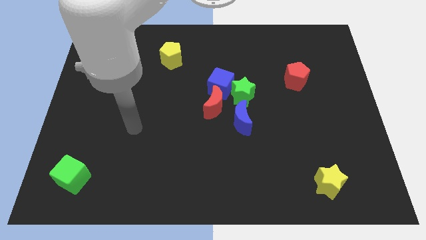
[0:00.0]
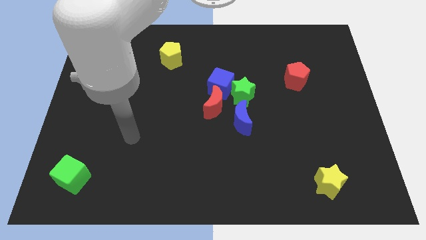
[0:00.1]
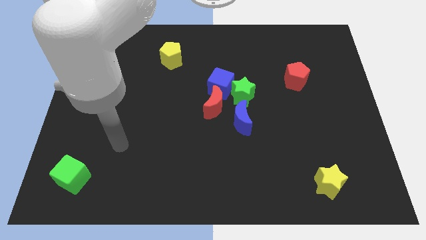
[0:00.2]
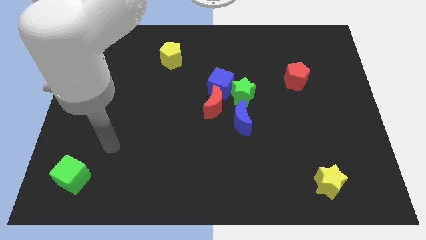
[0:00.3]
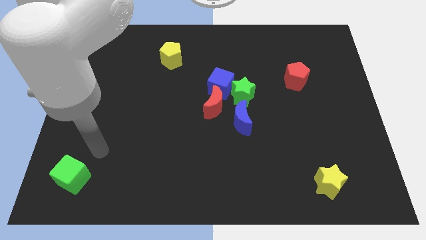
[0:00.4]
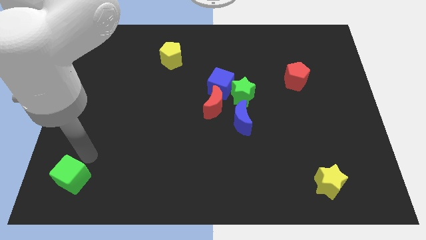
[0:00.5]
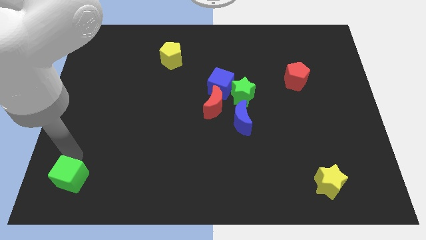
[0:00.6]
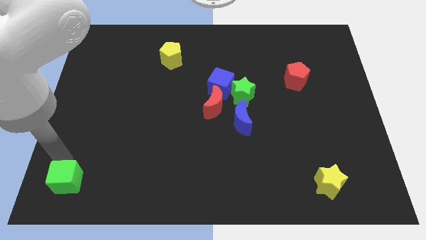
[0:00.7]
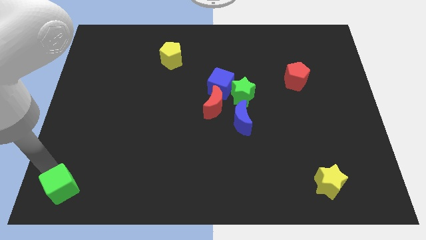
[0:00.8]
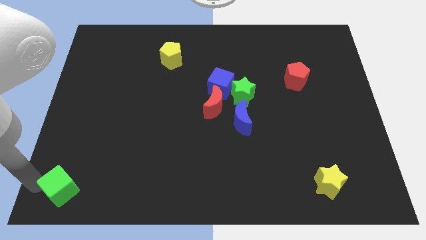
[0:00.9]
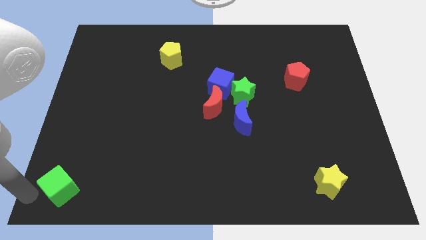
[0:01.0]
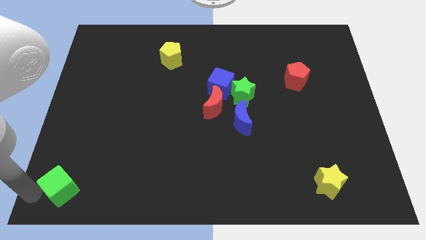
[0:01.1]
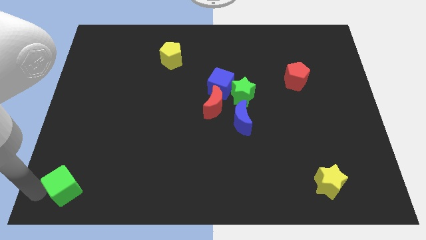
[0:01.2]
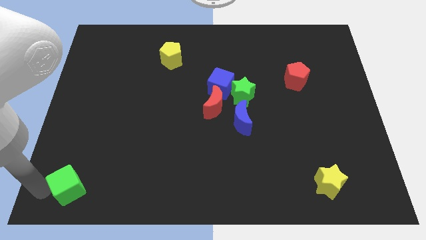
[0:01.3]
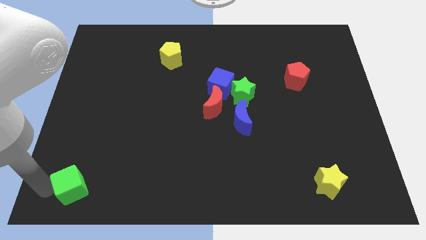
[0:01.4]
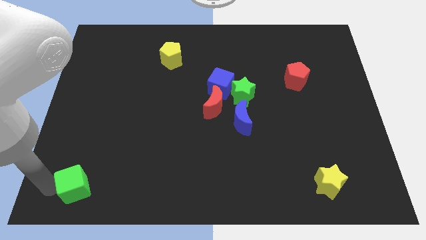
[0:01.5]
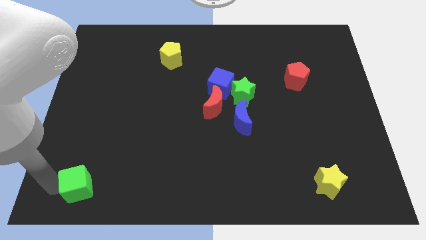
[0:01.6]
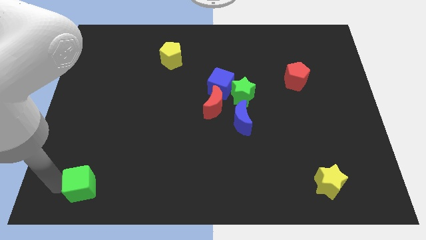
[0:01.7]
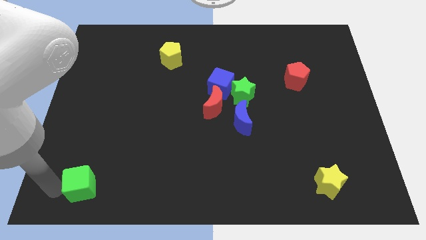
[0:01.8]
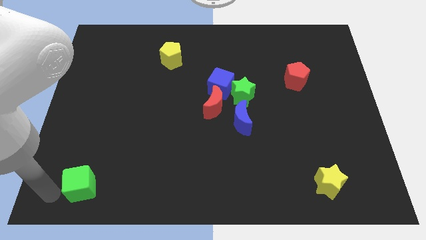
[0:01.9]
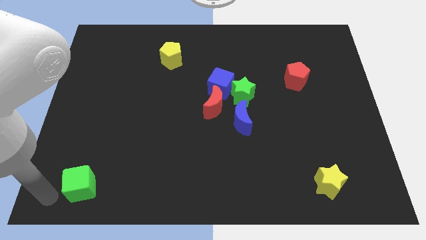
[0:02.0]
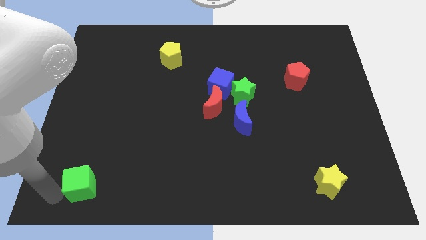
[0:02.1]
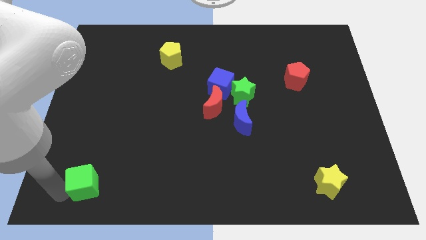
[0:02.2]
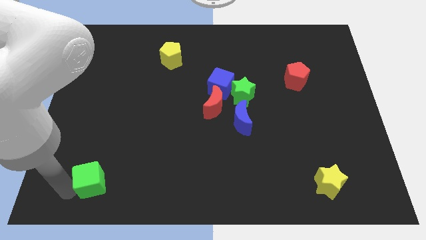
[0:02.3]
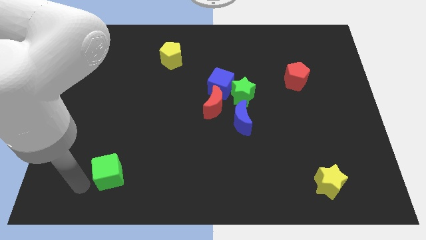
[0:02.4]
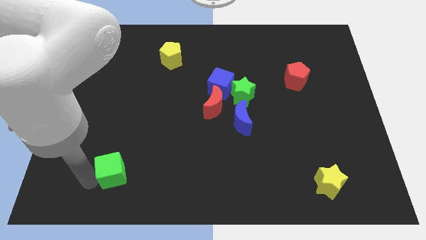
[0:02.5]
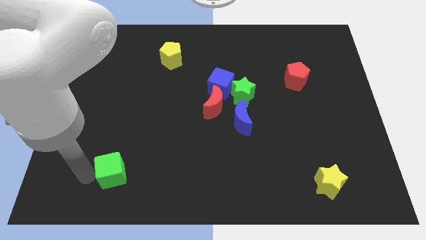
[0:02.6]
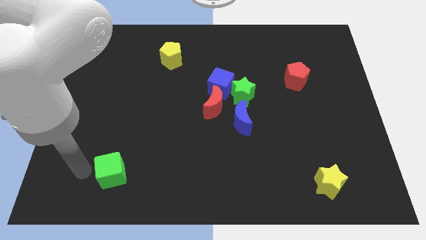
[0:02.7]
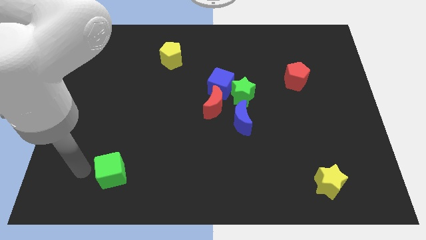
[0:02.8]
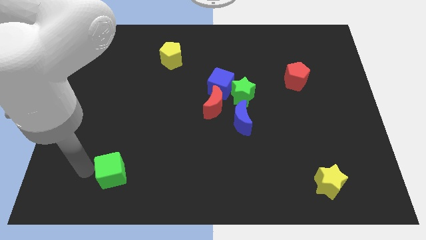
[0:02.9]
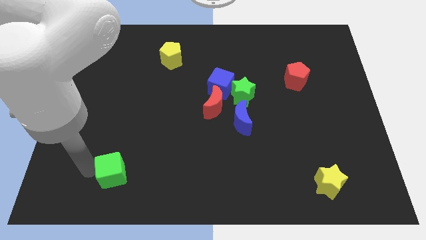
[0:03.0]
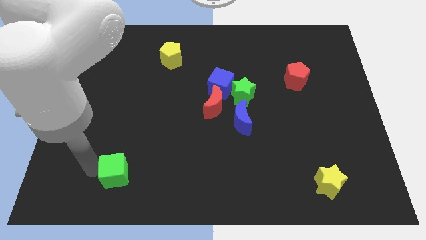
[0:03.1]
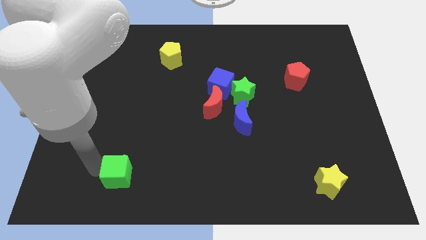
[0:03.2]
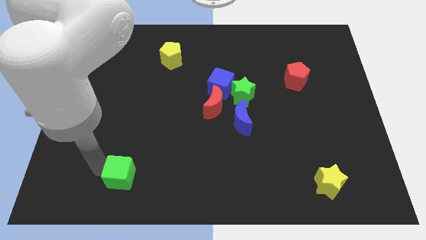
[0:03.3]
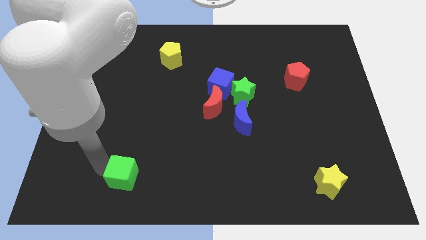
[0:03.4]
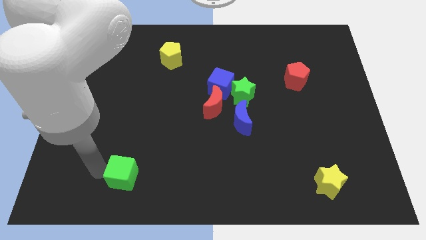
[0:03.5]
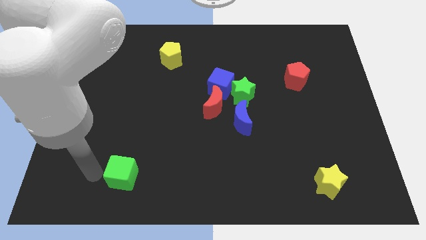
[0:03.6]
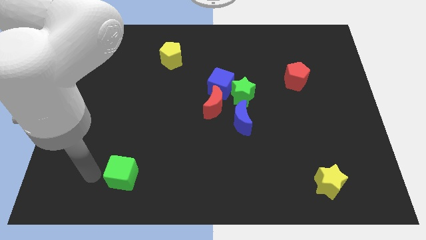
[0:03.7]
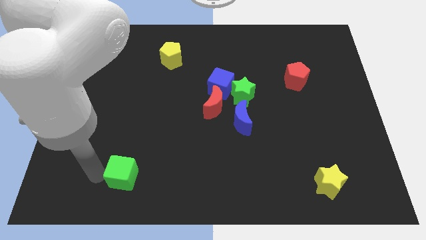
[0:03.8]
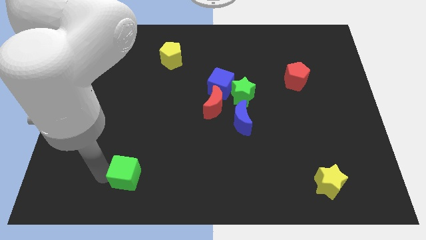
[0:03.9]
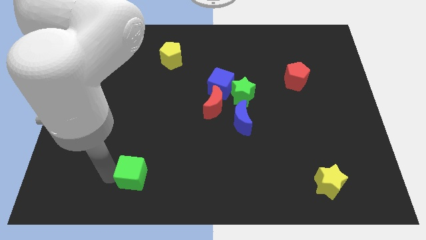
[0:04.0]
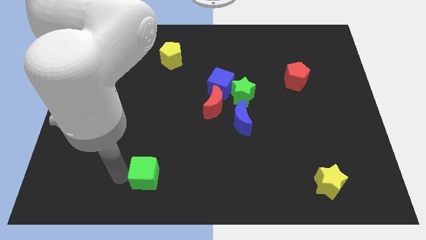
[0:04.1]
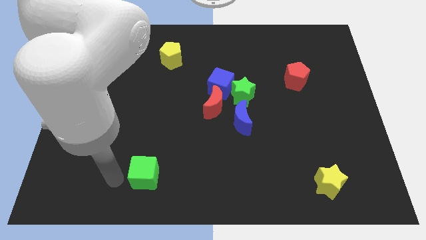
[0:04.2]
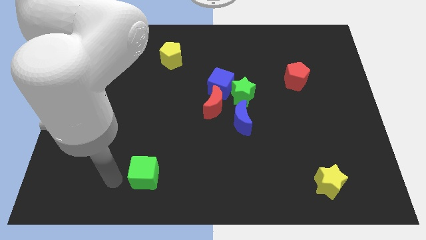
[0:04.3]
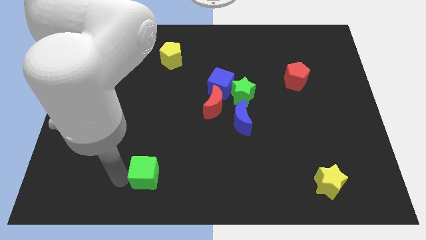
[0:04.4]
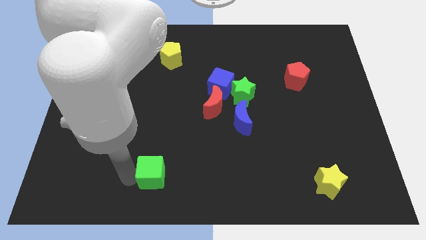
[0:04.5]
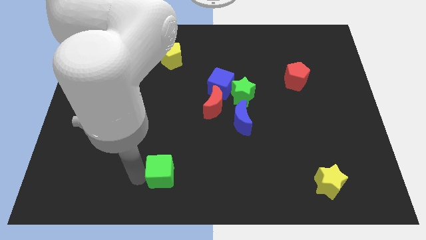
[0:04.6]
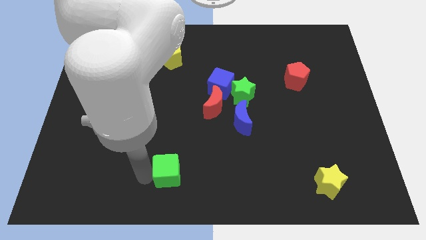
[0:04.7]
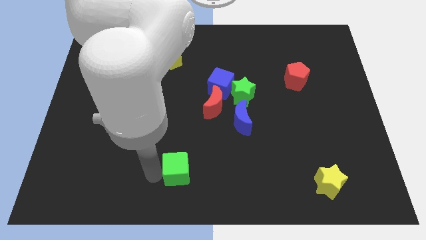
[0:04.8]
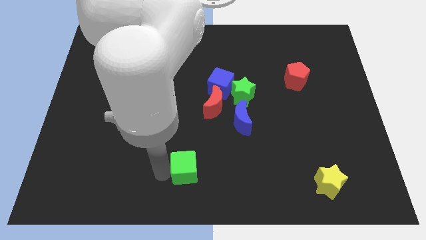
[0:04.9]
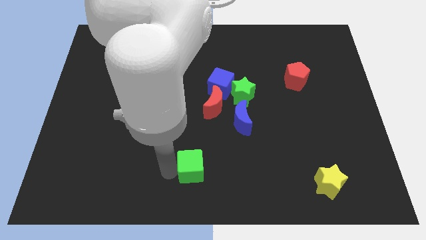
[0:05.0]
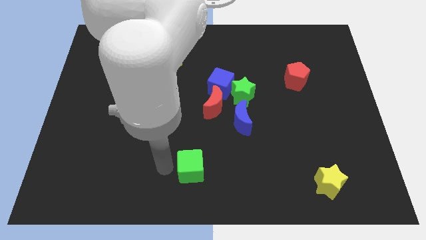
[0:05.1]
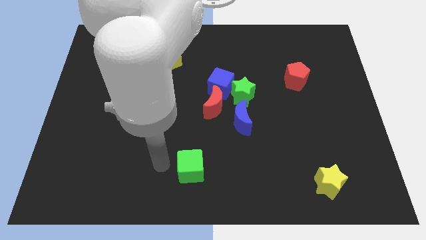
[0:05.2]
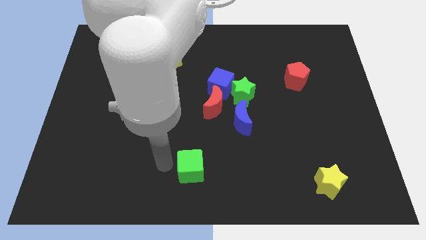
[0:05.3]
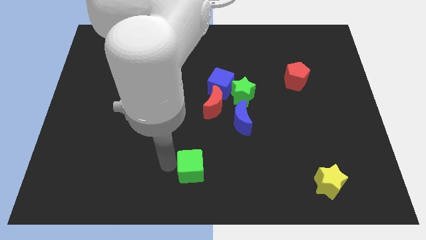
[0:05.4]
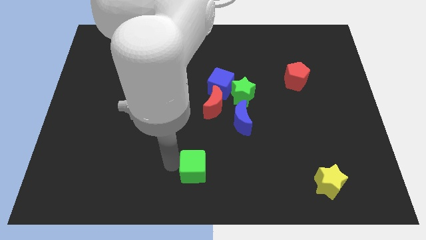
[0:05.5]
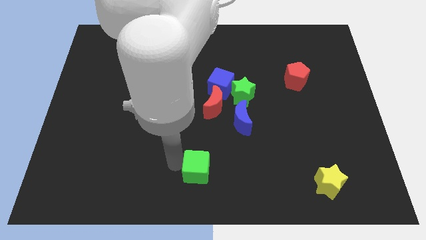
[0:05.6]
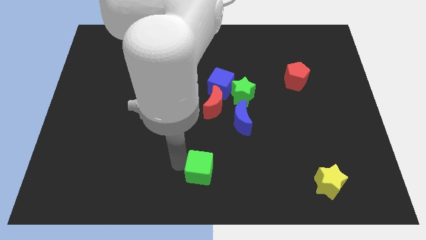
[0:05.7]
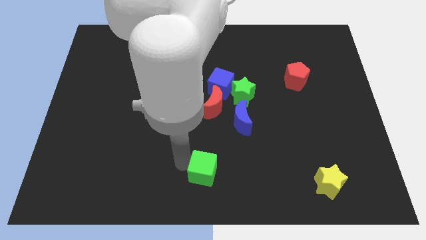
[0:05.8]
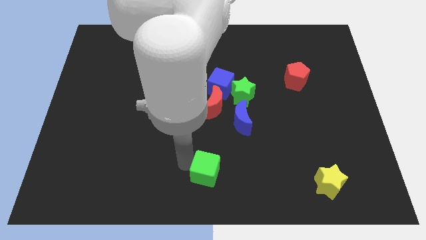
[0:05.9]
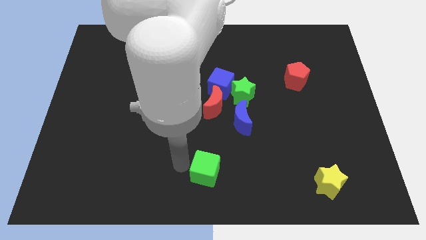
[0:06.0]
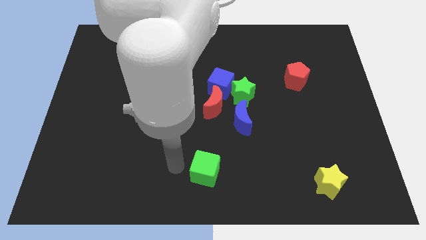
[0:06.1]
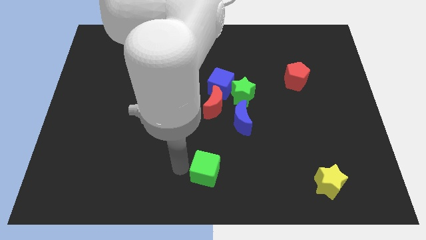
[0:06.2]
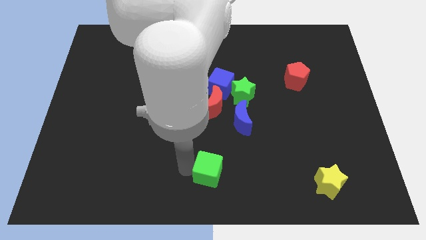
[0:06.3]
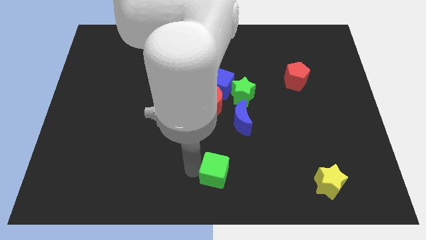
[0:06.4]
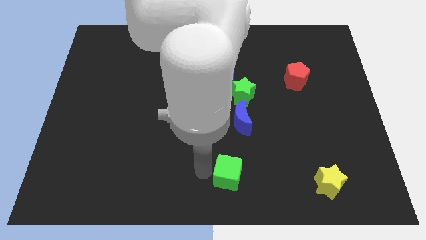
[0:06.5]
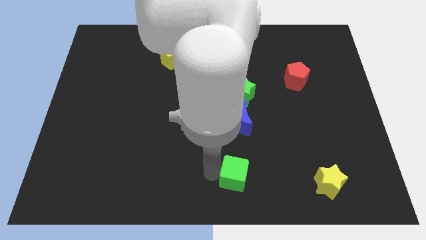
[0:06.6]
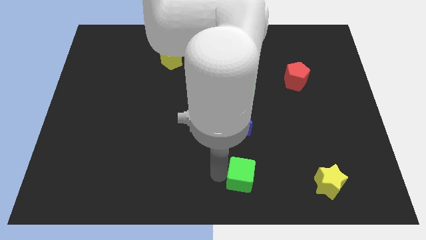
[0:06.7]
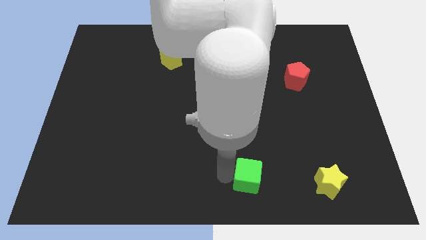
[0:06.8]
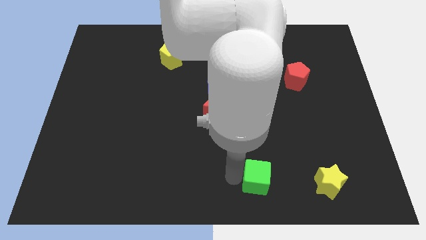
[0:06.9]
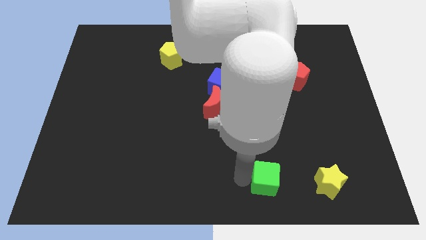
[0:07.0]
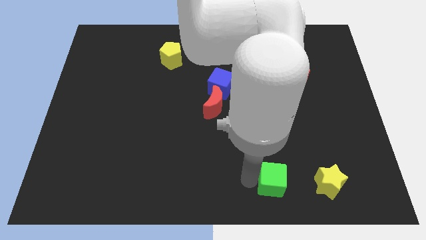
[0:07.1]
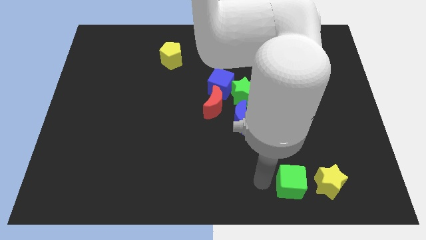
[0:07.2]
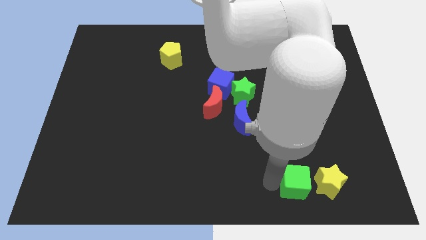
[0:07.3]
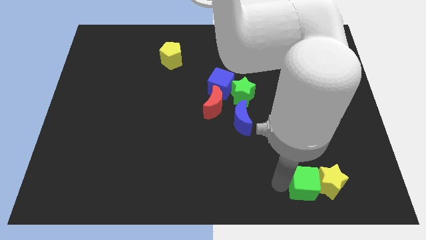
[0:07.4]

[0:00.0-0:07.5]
slide the green cube close to the yellow star

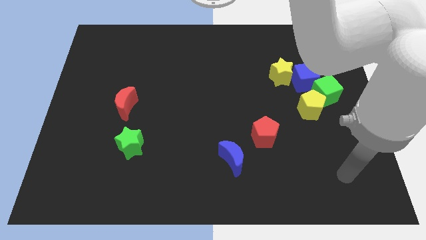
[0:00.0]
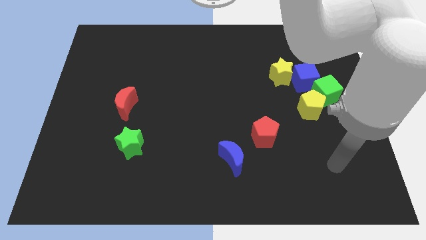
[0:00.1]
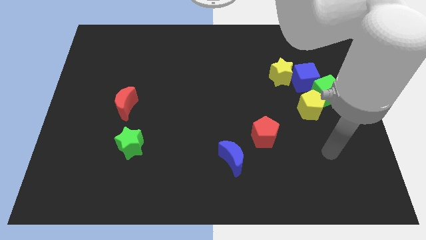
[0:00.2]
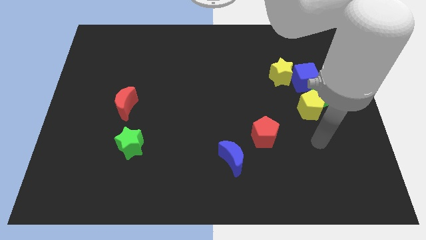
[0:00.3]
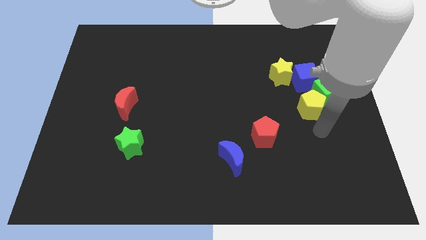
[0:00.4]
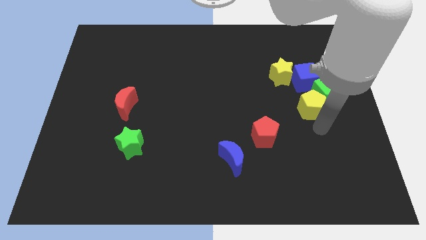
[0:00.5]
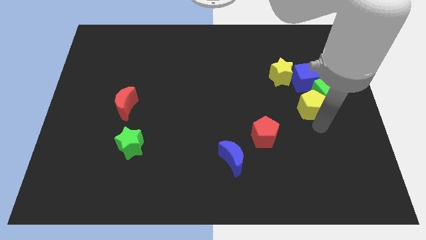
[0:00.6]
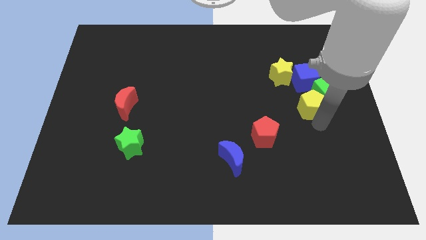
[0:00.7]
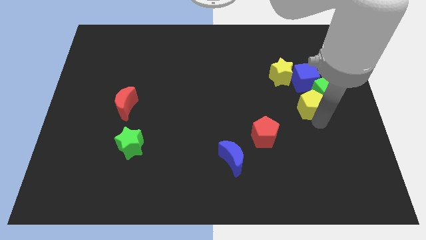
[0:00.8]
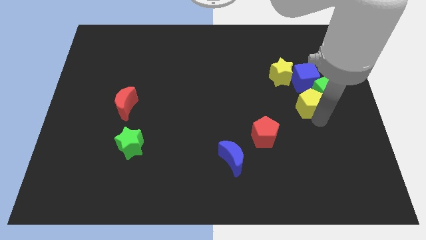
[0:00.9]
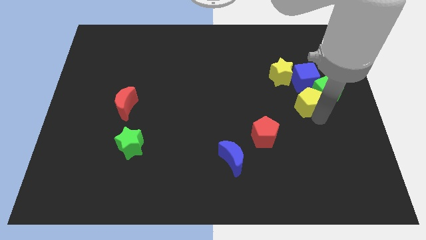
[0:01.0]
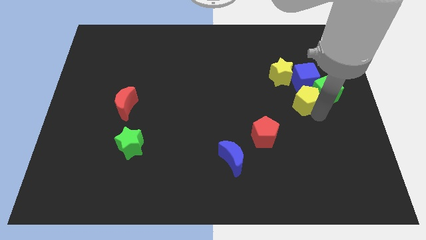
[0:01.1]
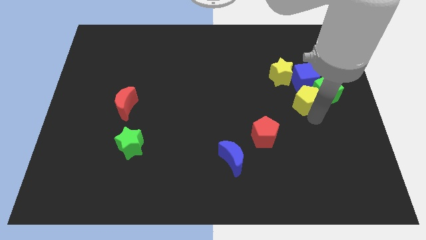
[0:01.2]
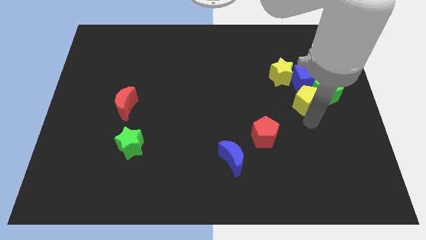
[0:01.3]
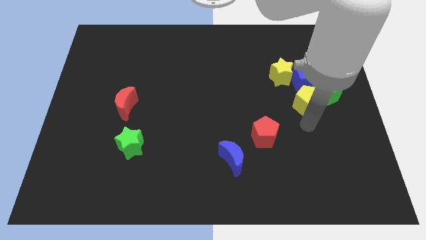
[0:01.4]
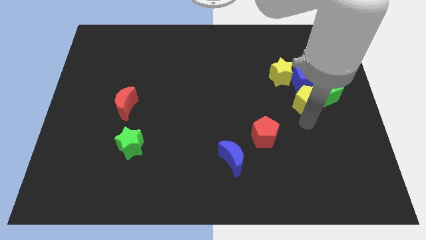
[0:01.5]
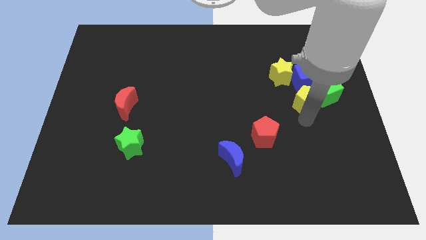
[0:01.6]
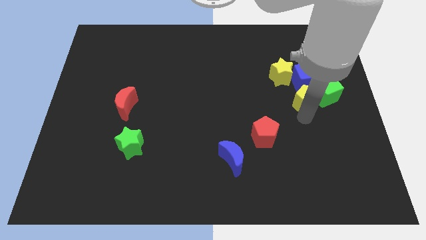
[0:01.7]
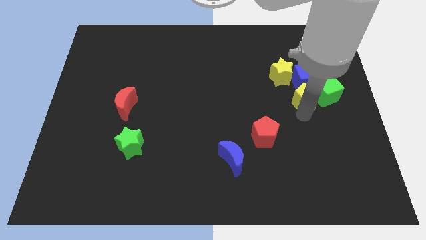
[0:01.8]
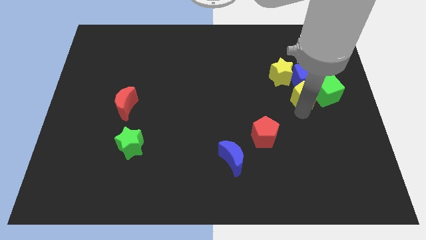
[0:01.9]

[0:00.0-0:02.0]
move the yellow pentagon to the blue cube
